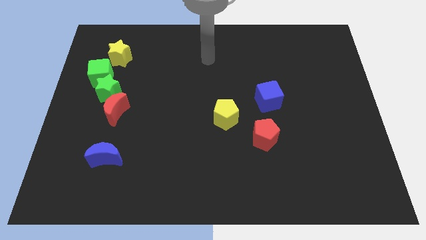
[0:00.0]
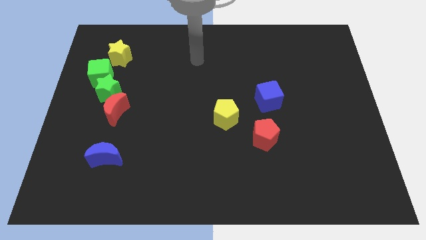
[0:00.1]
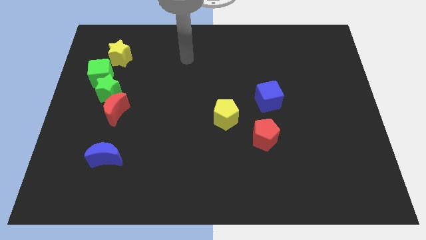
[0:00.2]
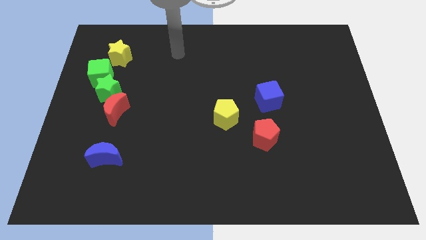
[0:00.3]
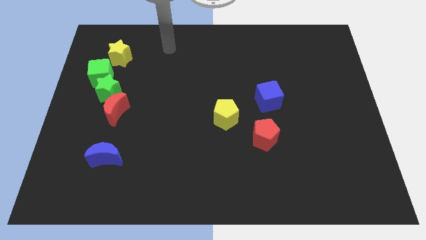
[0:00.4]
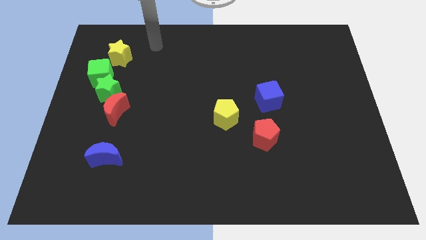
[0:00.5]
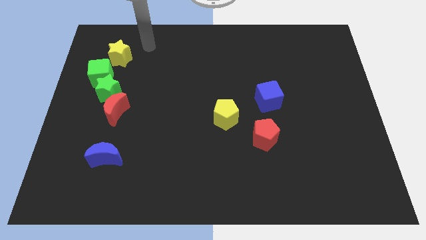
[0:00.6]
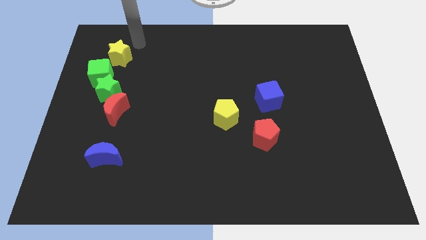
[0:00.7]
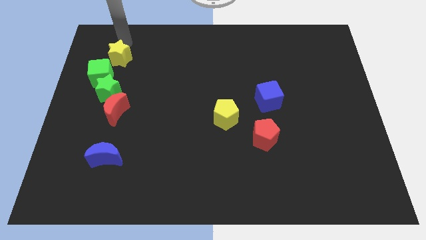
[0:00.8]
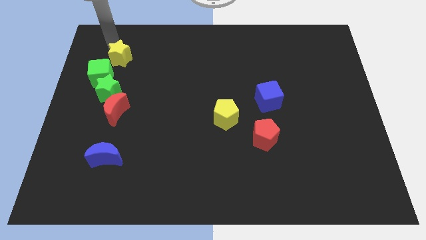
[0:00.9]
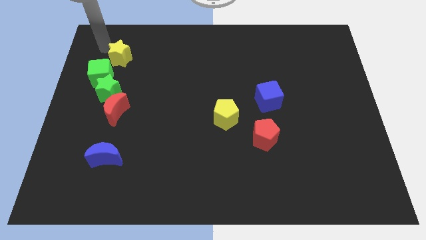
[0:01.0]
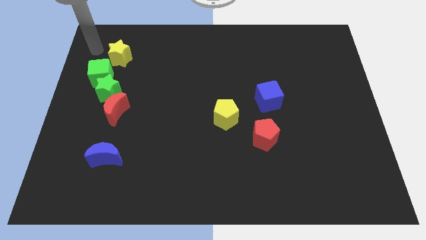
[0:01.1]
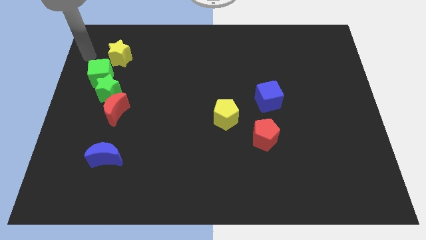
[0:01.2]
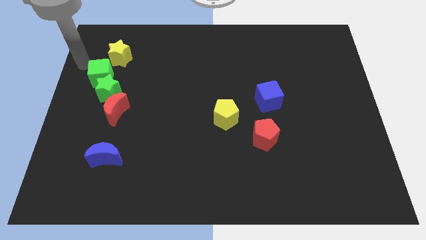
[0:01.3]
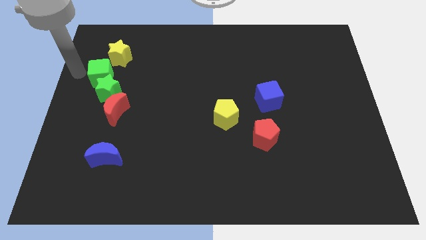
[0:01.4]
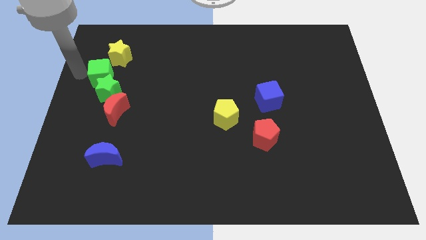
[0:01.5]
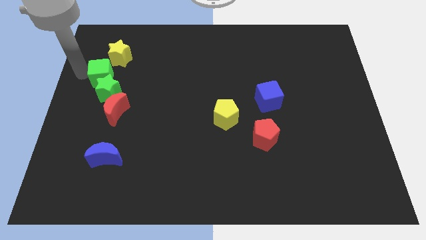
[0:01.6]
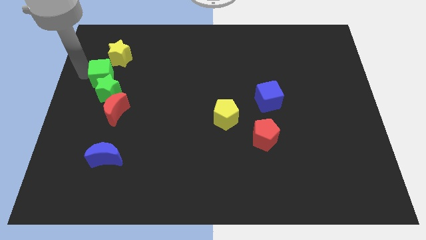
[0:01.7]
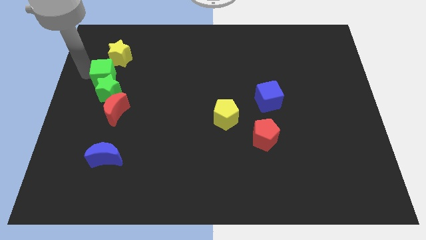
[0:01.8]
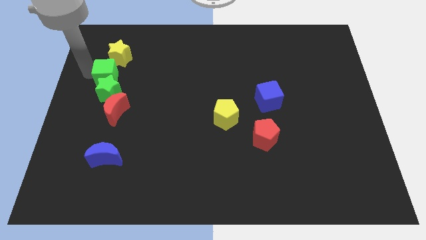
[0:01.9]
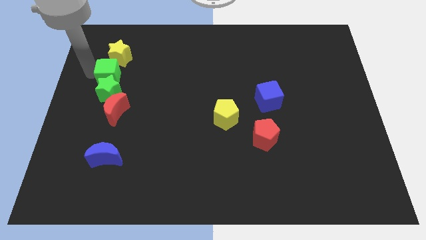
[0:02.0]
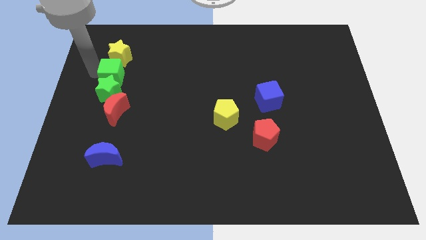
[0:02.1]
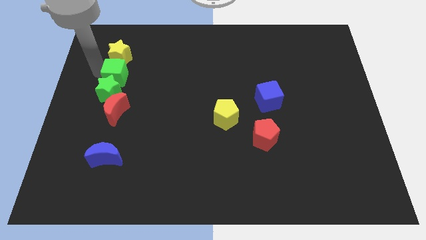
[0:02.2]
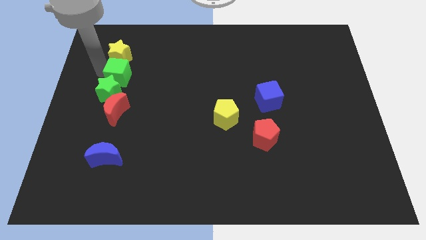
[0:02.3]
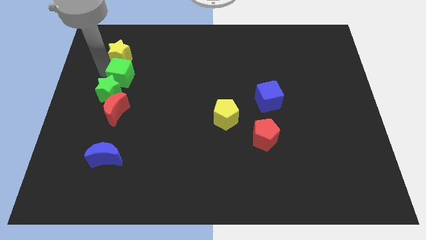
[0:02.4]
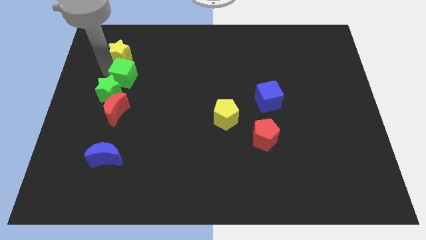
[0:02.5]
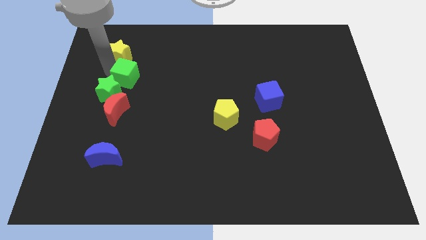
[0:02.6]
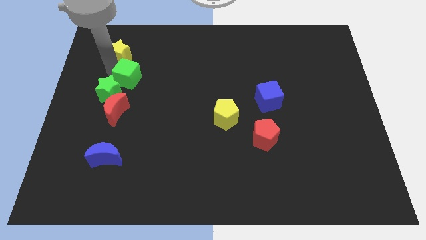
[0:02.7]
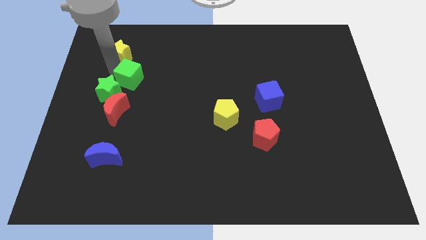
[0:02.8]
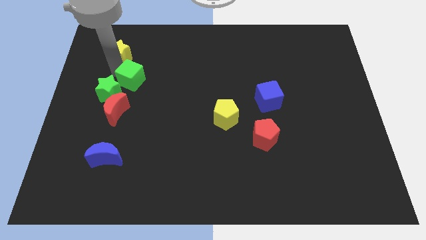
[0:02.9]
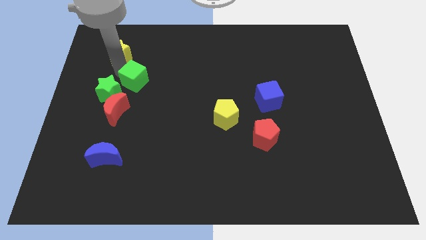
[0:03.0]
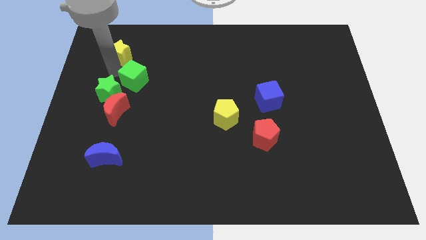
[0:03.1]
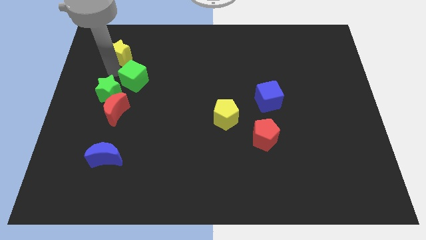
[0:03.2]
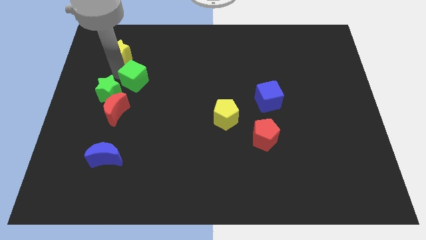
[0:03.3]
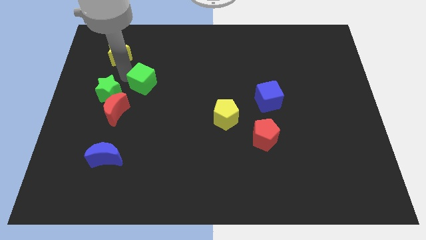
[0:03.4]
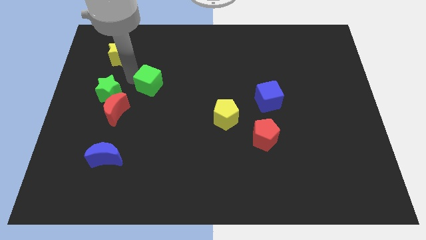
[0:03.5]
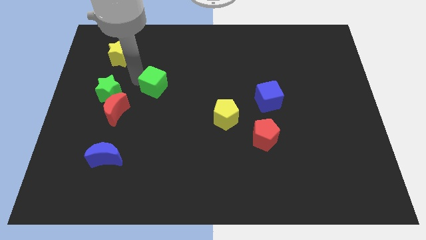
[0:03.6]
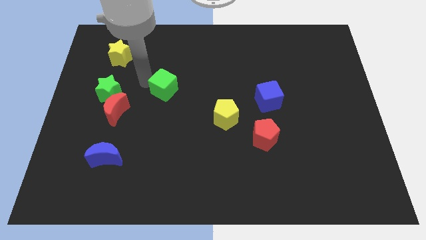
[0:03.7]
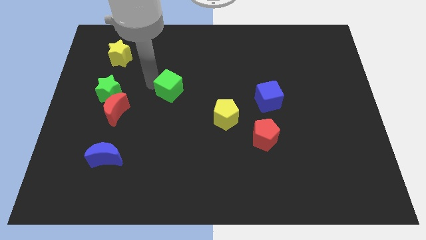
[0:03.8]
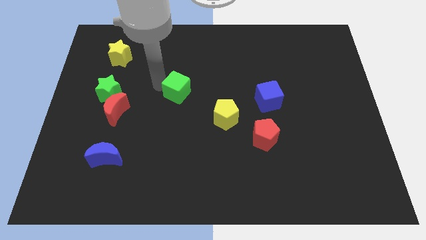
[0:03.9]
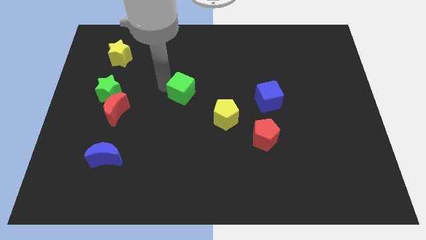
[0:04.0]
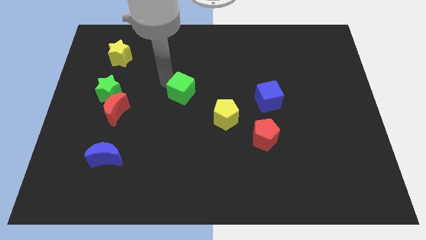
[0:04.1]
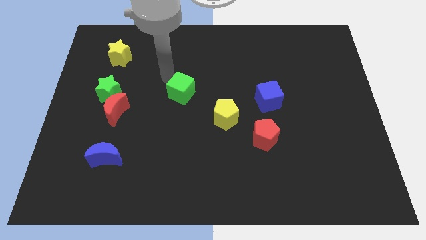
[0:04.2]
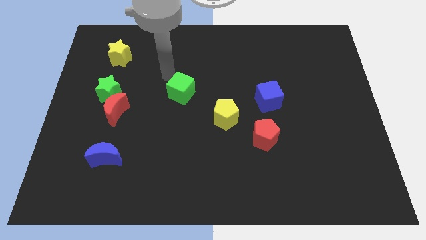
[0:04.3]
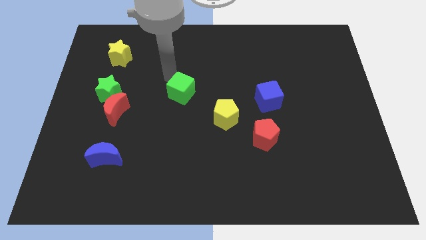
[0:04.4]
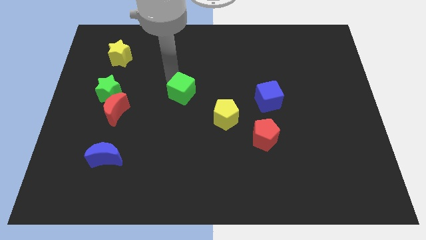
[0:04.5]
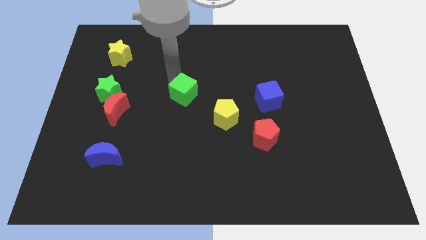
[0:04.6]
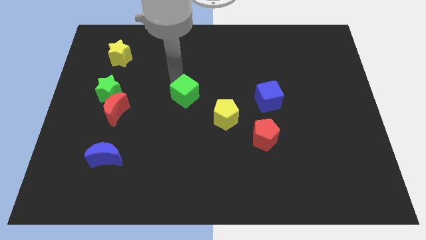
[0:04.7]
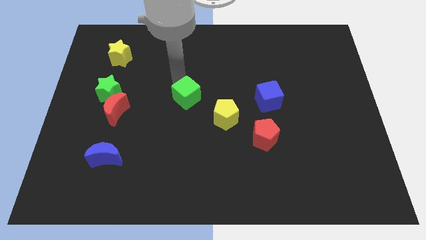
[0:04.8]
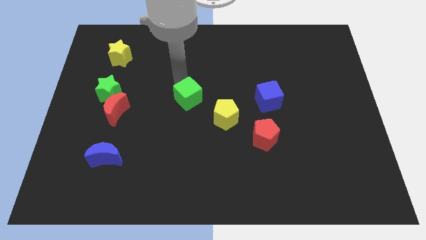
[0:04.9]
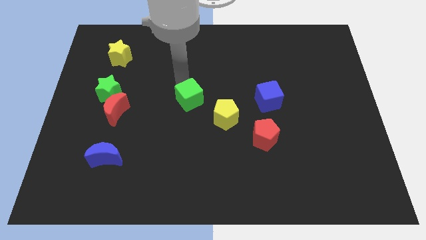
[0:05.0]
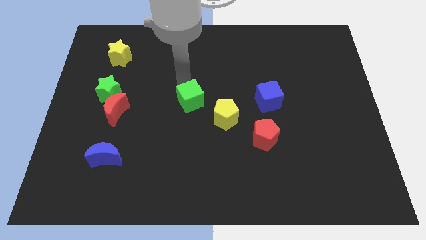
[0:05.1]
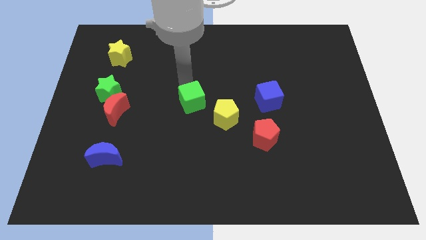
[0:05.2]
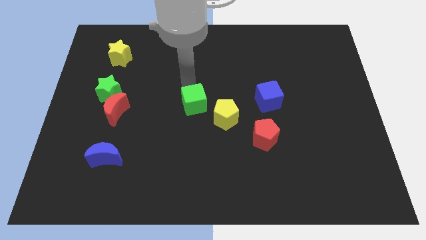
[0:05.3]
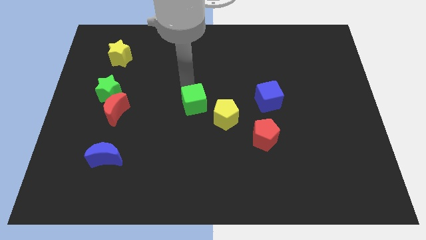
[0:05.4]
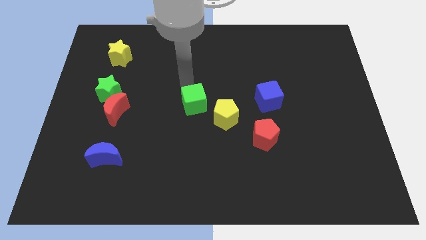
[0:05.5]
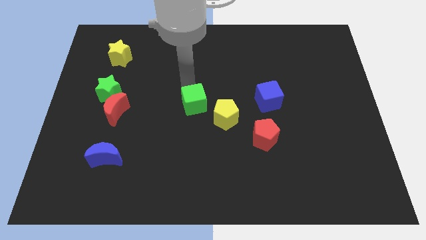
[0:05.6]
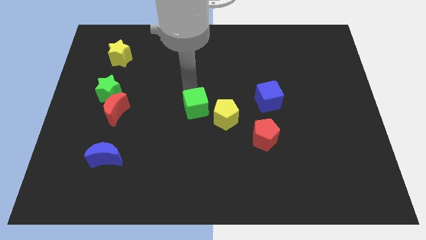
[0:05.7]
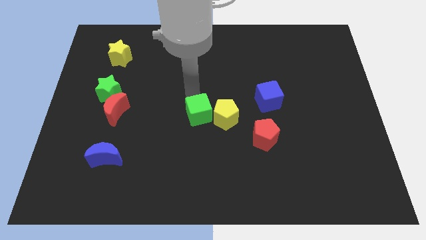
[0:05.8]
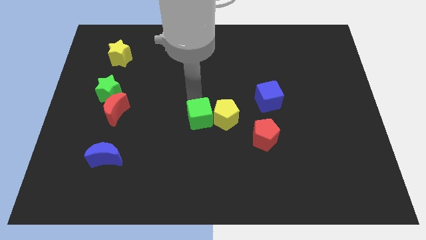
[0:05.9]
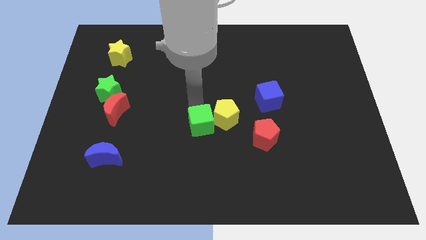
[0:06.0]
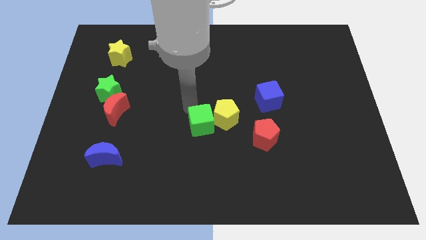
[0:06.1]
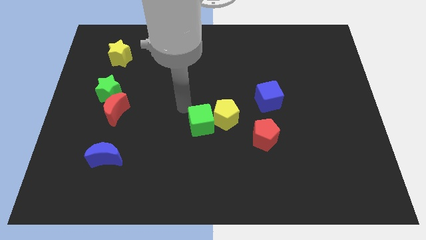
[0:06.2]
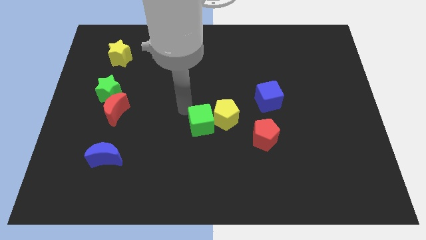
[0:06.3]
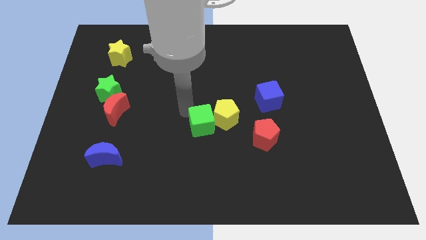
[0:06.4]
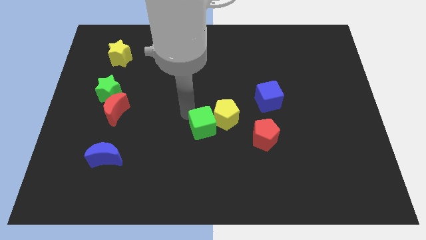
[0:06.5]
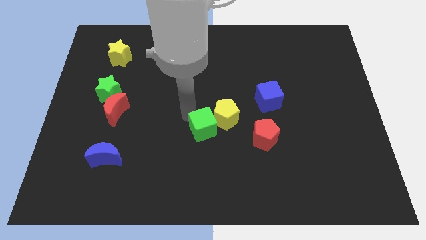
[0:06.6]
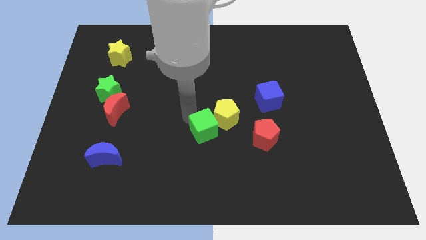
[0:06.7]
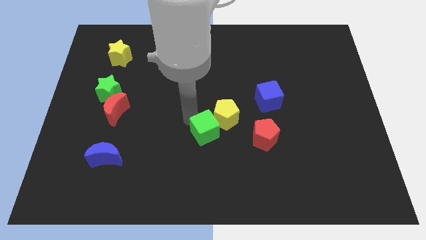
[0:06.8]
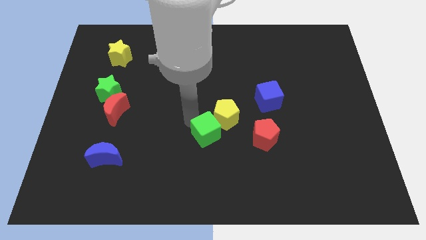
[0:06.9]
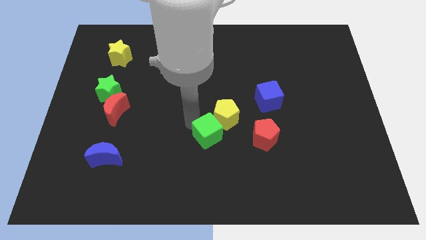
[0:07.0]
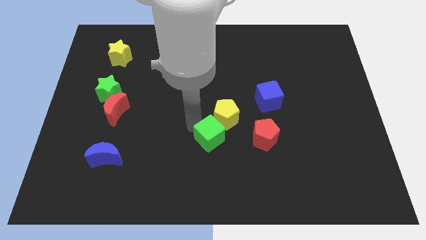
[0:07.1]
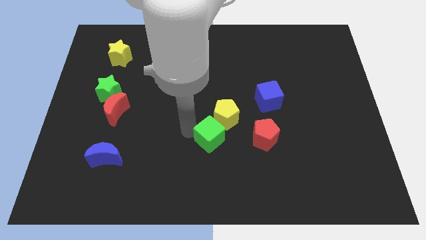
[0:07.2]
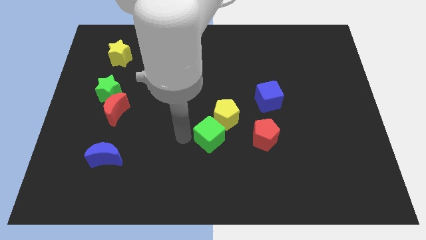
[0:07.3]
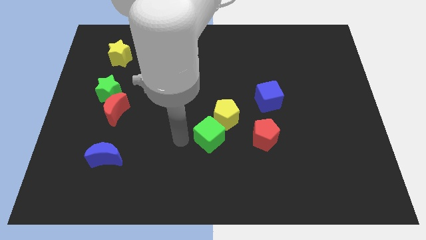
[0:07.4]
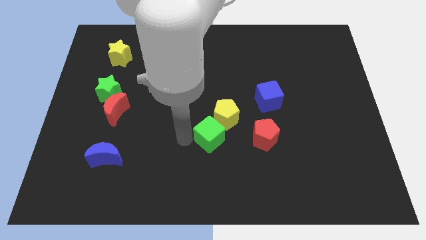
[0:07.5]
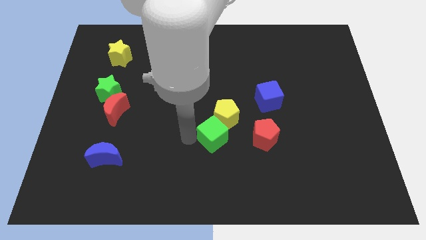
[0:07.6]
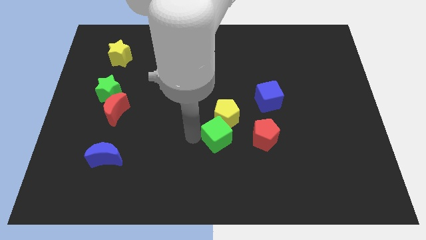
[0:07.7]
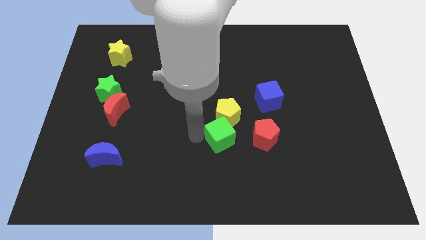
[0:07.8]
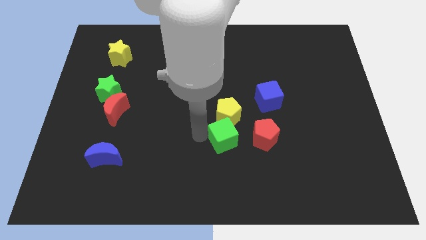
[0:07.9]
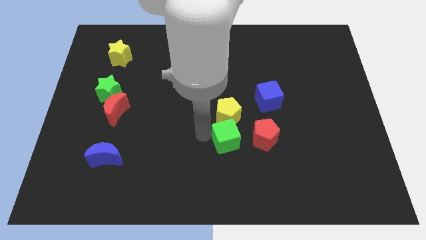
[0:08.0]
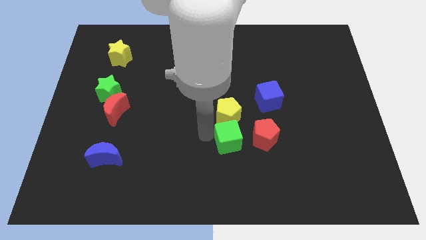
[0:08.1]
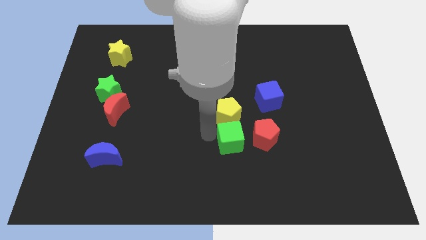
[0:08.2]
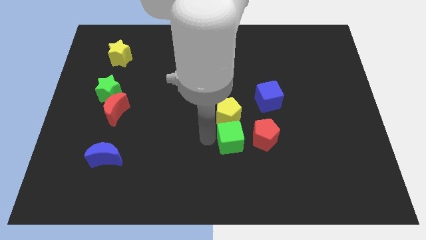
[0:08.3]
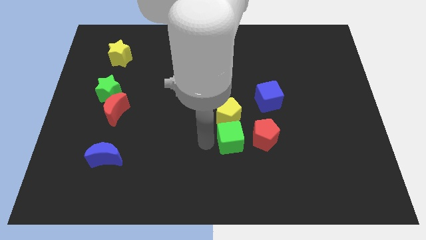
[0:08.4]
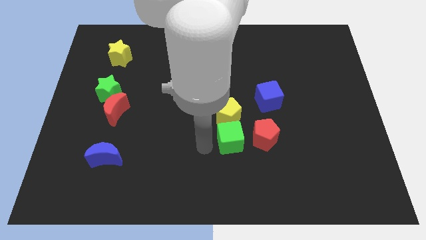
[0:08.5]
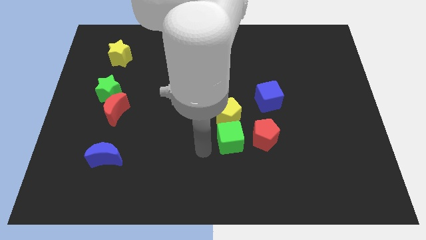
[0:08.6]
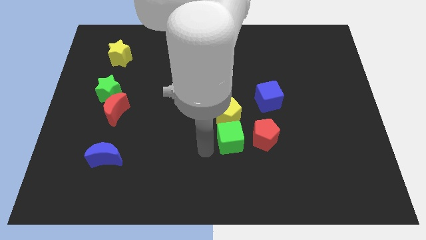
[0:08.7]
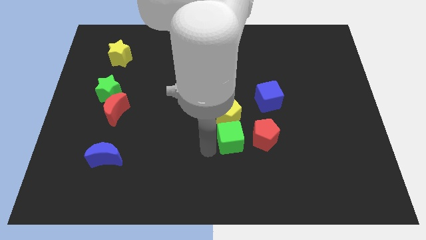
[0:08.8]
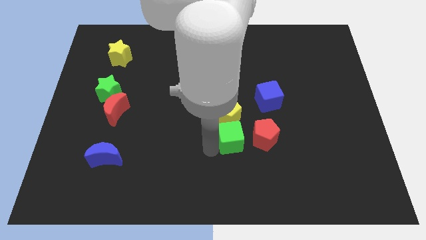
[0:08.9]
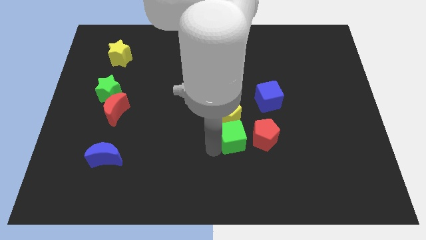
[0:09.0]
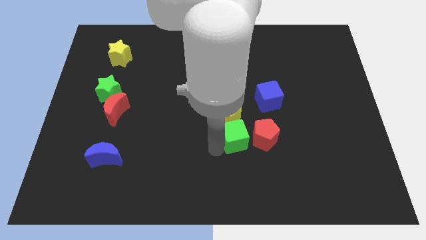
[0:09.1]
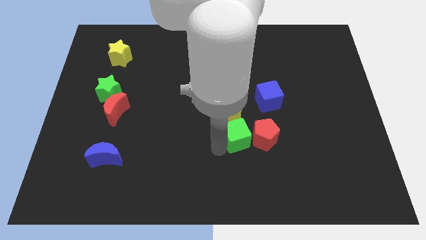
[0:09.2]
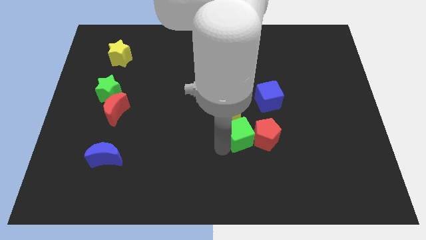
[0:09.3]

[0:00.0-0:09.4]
put the green cube next to the red pentagon
